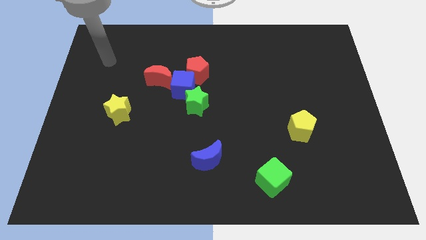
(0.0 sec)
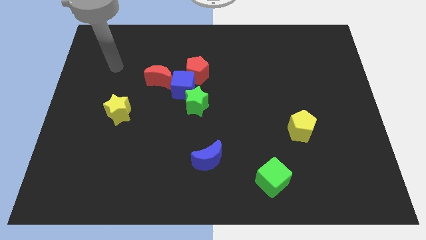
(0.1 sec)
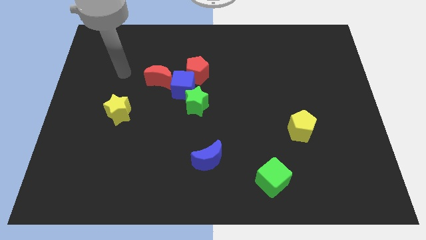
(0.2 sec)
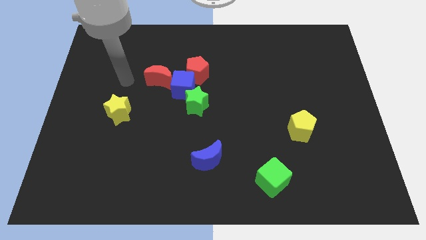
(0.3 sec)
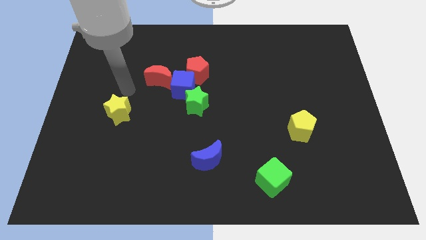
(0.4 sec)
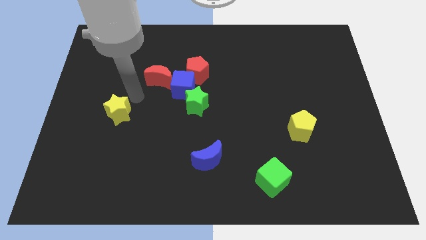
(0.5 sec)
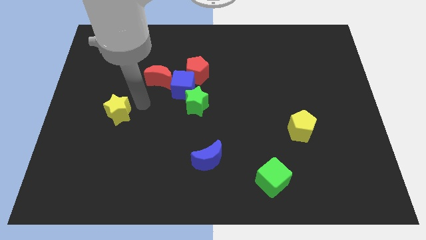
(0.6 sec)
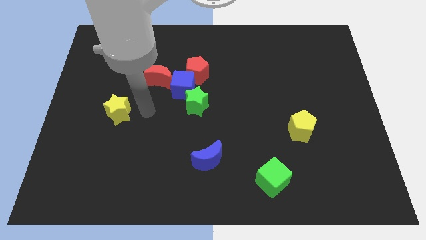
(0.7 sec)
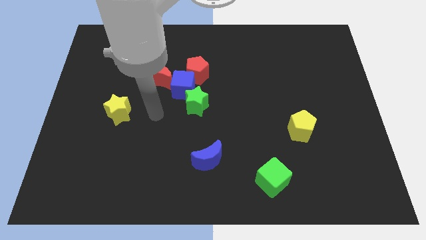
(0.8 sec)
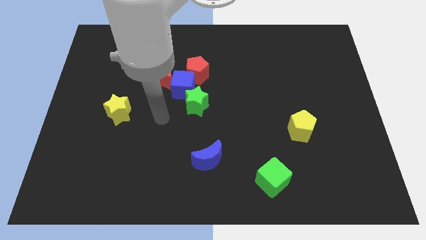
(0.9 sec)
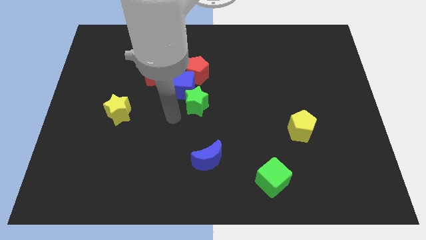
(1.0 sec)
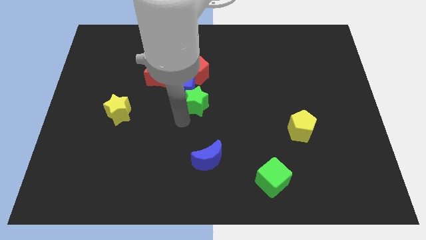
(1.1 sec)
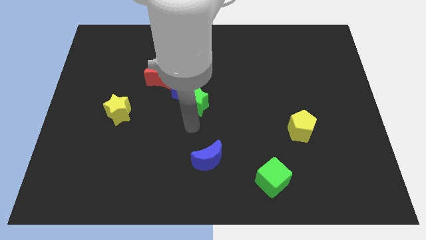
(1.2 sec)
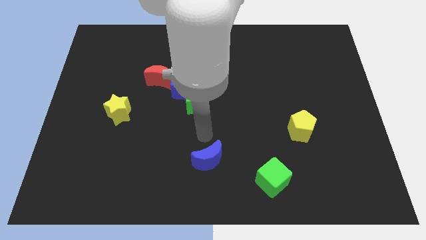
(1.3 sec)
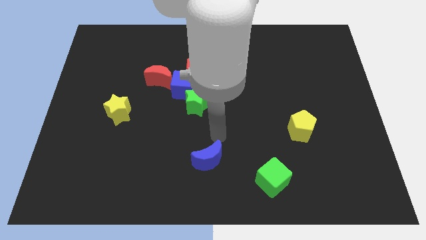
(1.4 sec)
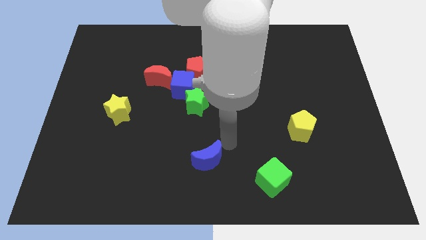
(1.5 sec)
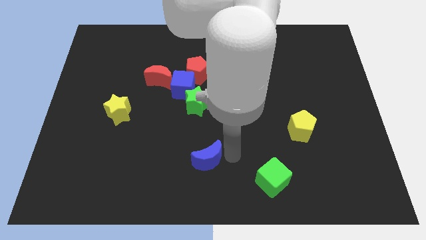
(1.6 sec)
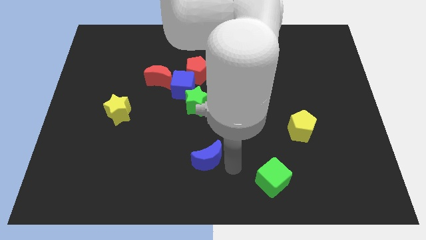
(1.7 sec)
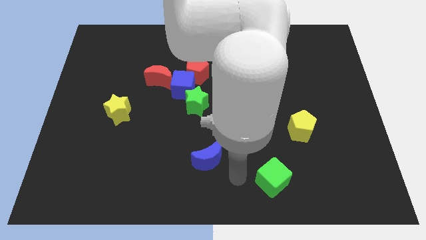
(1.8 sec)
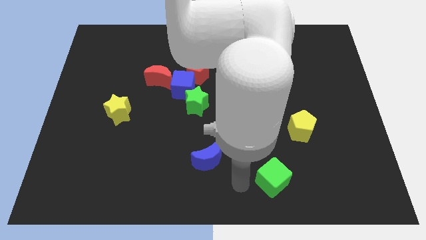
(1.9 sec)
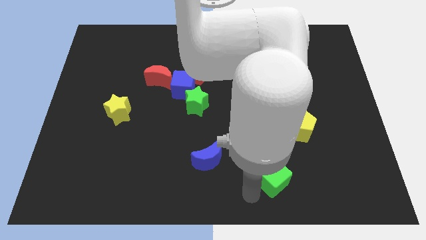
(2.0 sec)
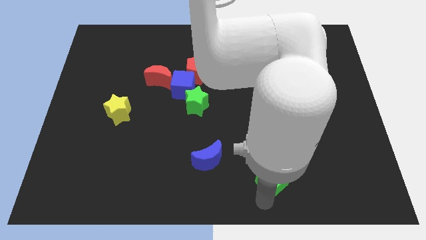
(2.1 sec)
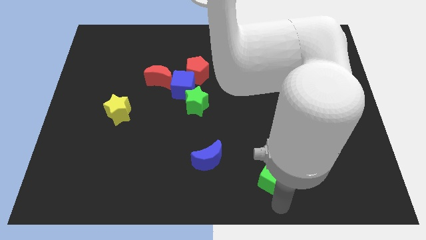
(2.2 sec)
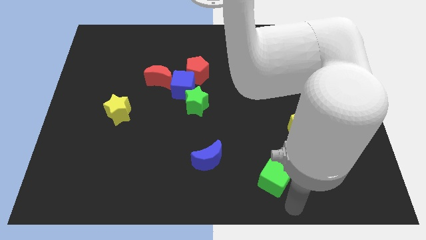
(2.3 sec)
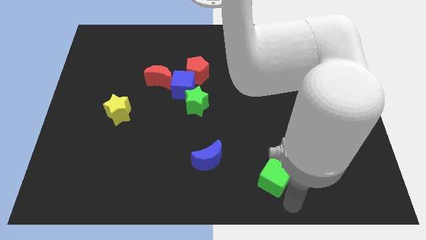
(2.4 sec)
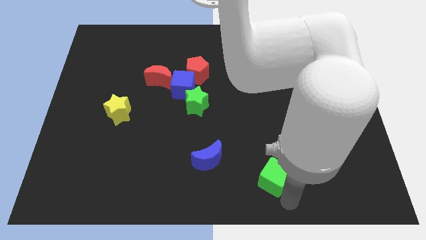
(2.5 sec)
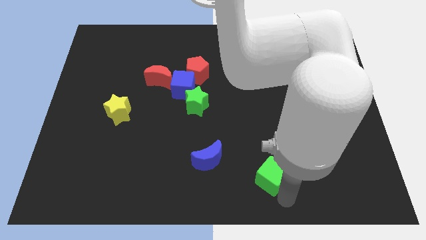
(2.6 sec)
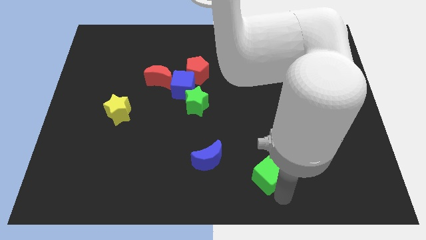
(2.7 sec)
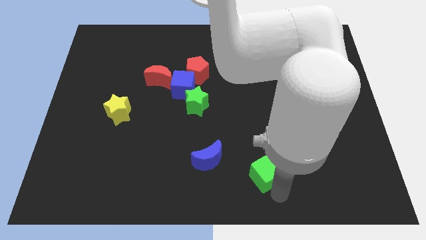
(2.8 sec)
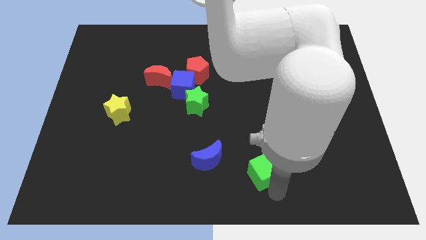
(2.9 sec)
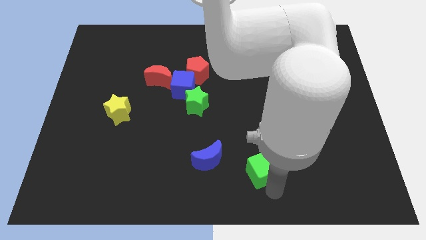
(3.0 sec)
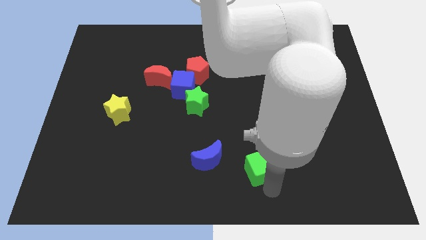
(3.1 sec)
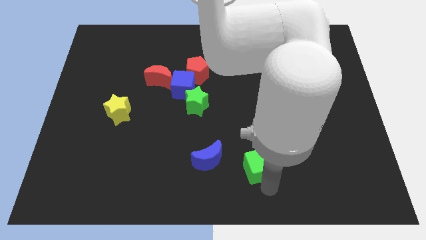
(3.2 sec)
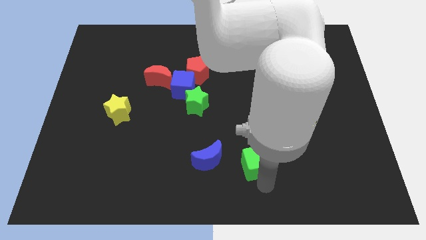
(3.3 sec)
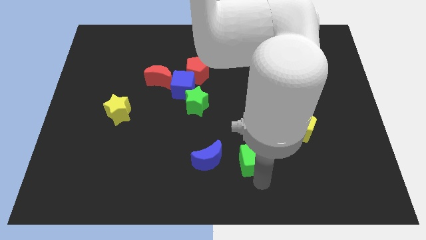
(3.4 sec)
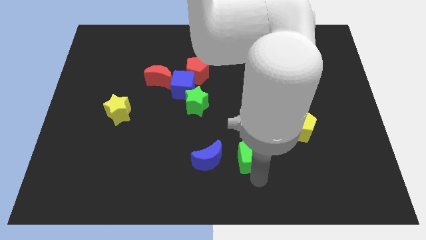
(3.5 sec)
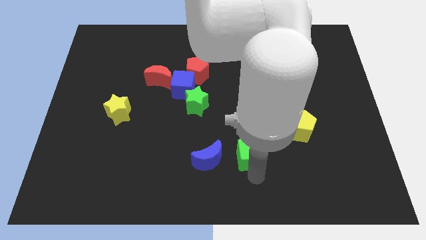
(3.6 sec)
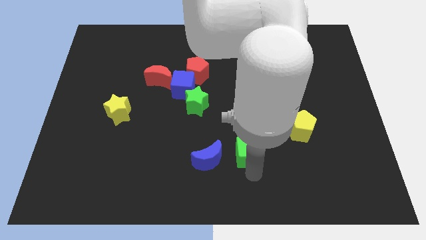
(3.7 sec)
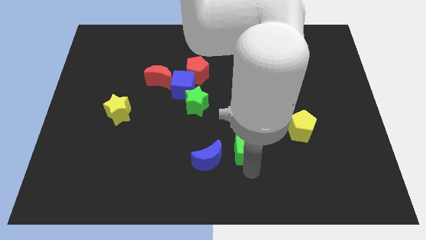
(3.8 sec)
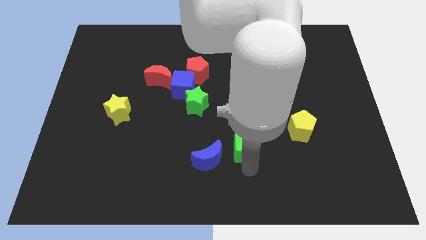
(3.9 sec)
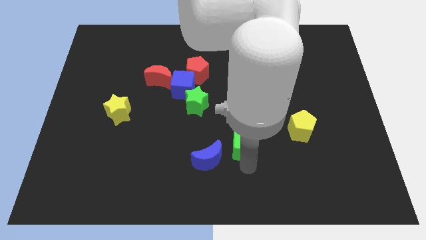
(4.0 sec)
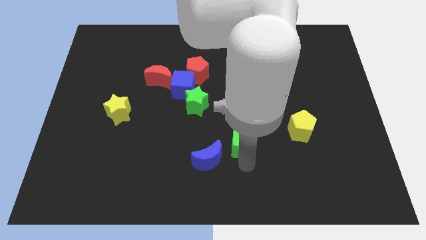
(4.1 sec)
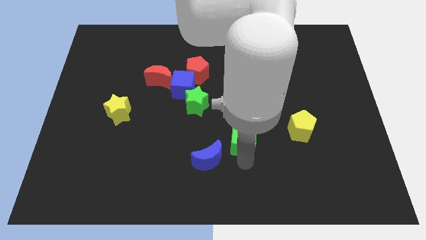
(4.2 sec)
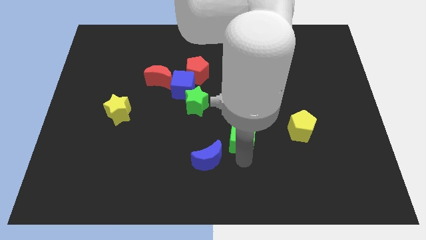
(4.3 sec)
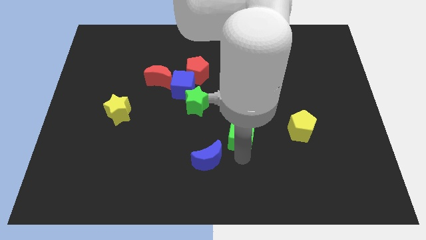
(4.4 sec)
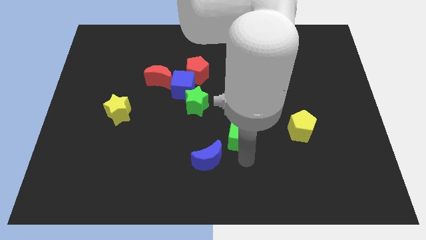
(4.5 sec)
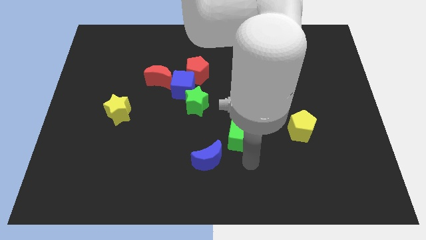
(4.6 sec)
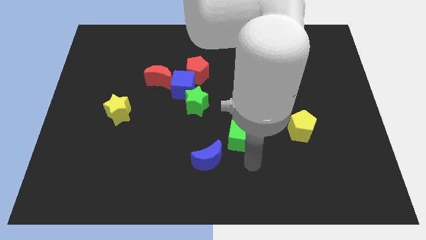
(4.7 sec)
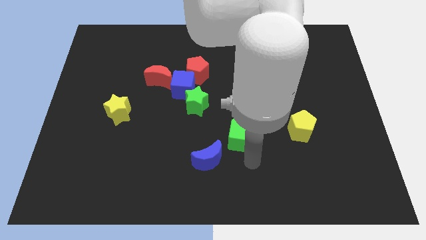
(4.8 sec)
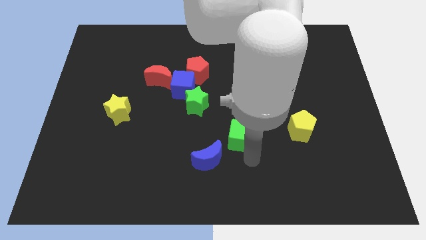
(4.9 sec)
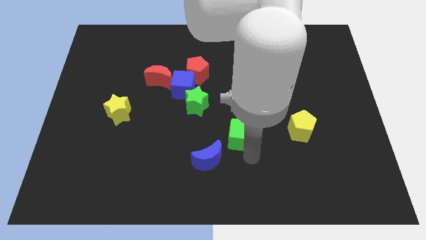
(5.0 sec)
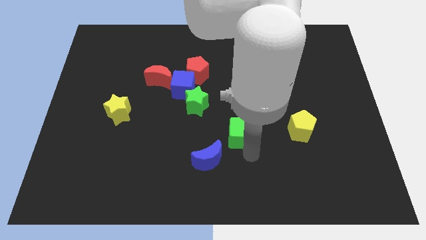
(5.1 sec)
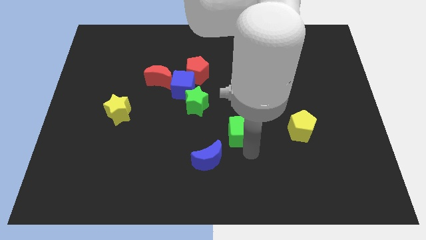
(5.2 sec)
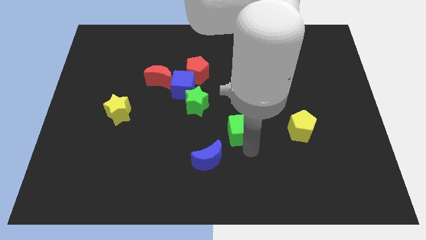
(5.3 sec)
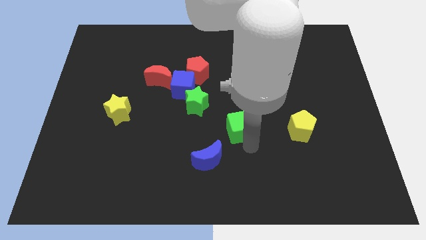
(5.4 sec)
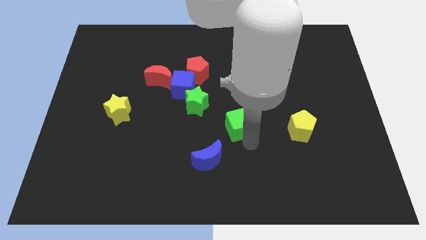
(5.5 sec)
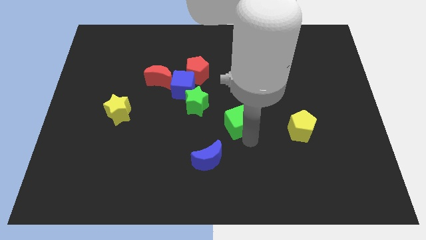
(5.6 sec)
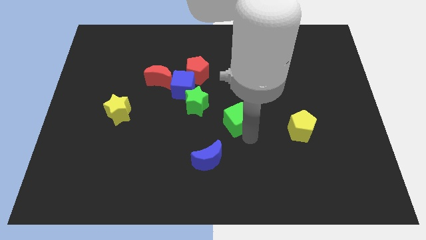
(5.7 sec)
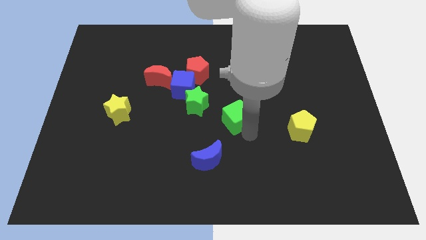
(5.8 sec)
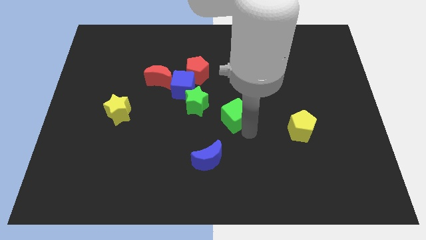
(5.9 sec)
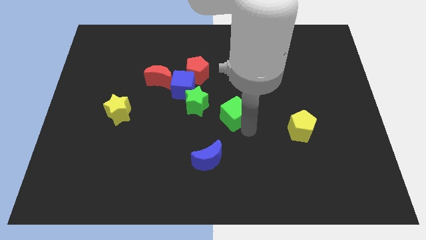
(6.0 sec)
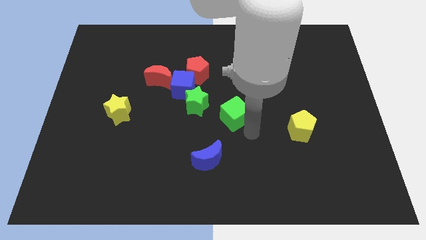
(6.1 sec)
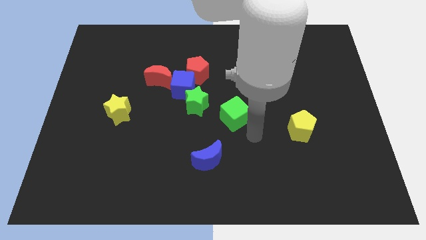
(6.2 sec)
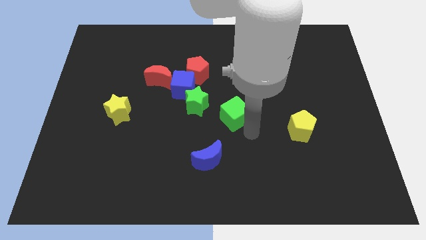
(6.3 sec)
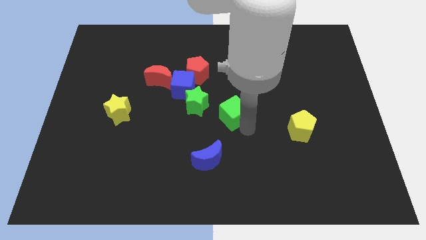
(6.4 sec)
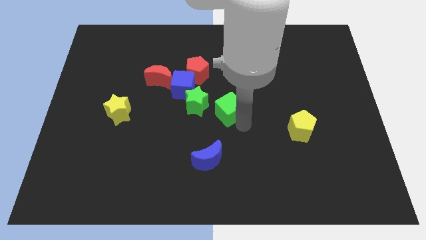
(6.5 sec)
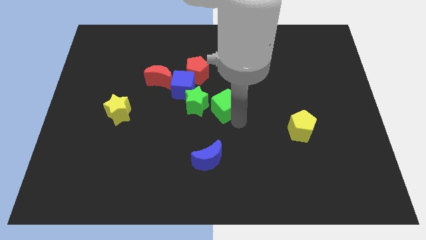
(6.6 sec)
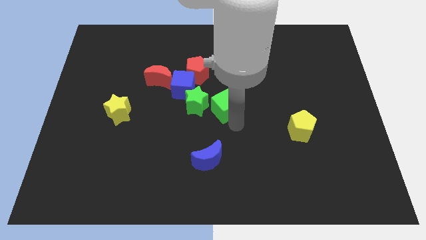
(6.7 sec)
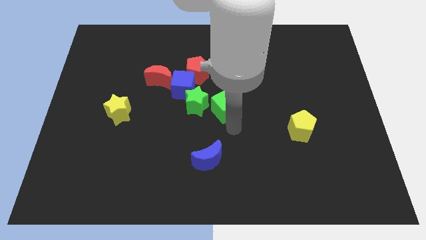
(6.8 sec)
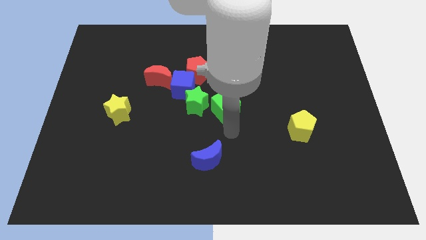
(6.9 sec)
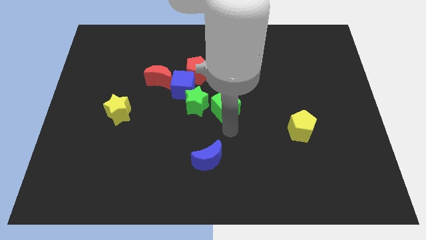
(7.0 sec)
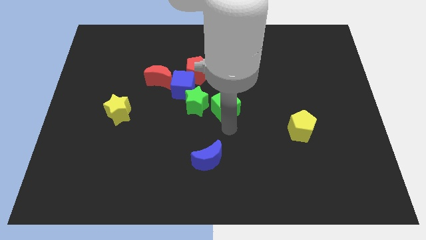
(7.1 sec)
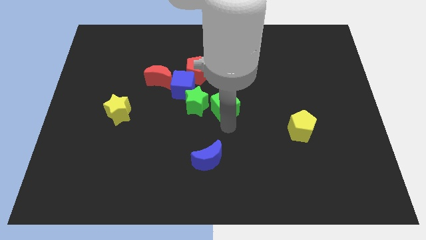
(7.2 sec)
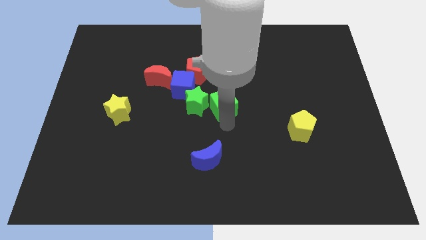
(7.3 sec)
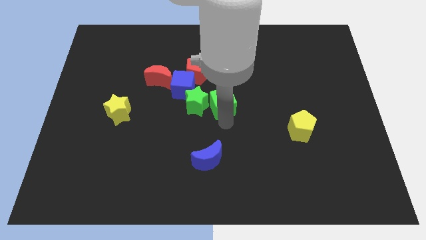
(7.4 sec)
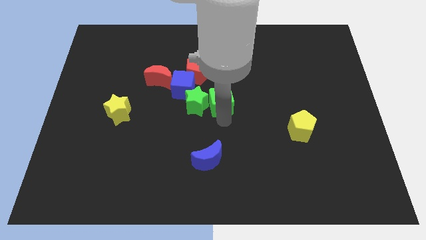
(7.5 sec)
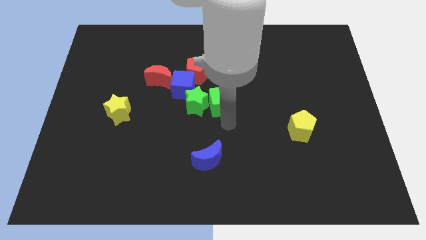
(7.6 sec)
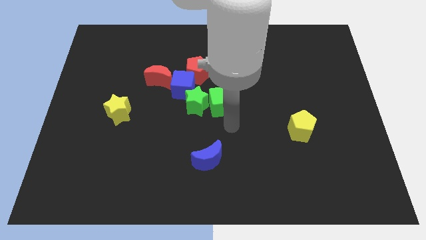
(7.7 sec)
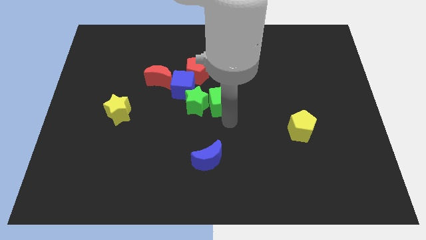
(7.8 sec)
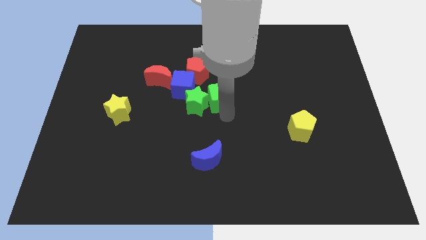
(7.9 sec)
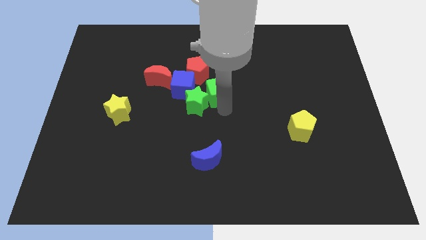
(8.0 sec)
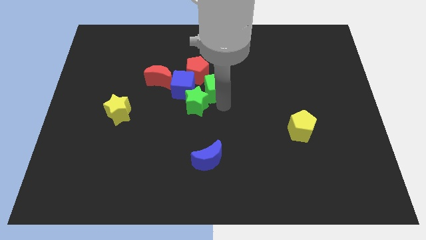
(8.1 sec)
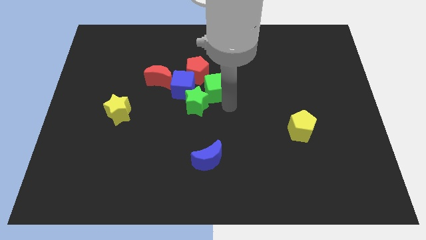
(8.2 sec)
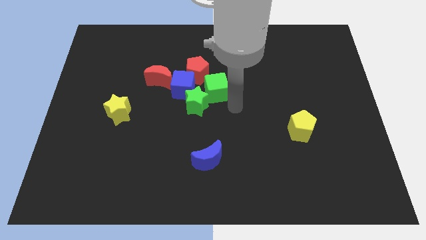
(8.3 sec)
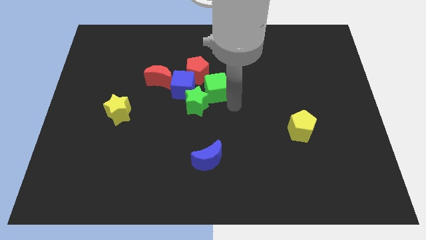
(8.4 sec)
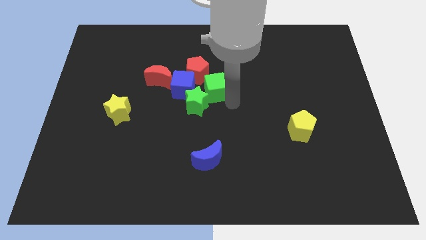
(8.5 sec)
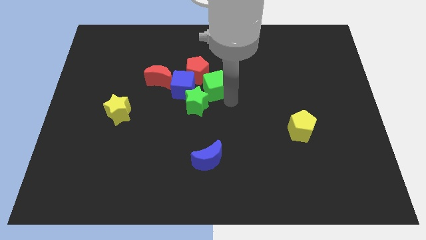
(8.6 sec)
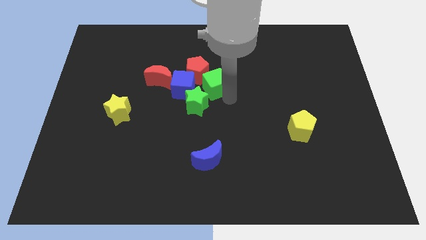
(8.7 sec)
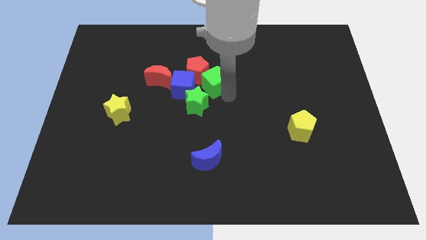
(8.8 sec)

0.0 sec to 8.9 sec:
put the green cube to the red pentagon
